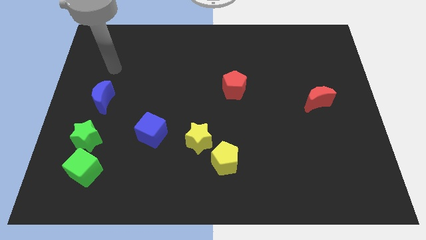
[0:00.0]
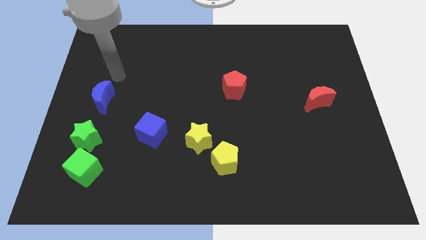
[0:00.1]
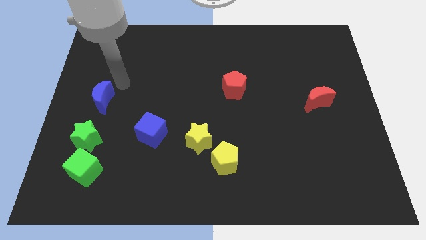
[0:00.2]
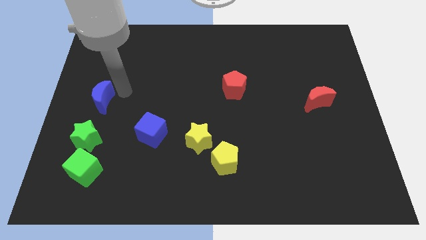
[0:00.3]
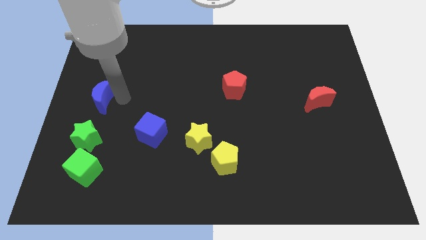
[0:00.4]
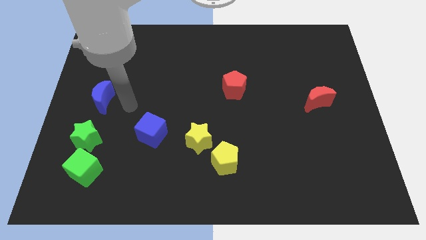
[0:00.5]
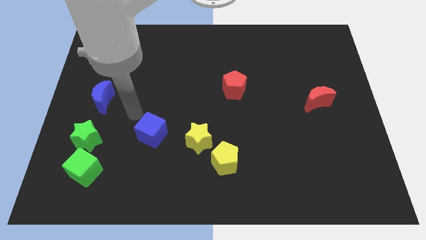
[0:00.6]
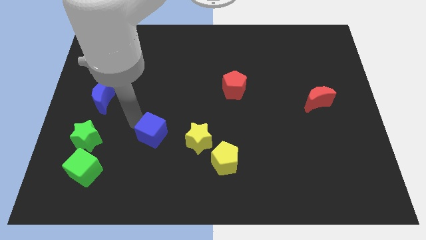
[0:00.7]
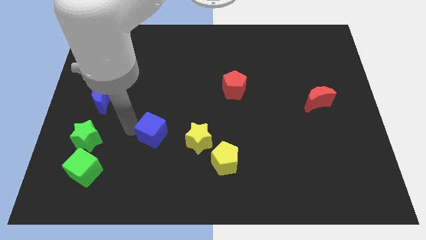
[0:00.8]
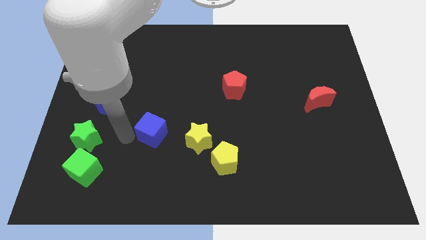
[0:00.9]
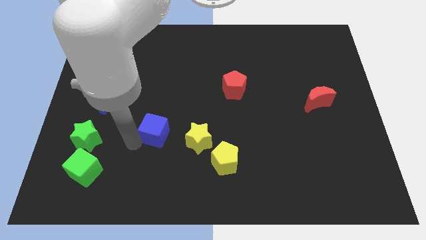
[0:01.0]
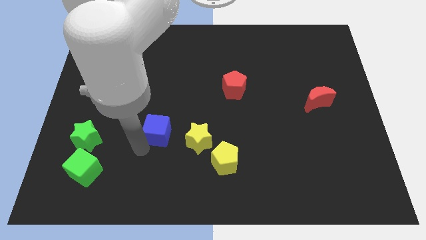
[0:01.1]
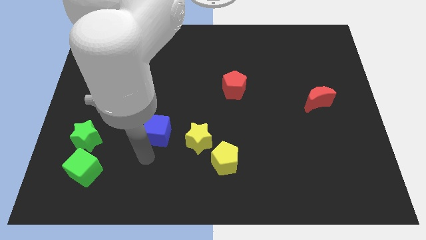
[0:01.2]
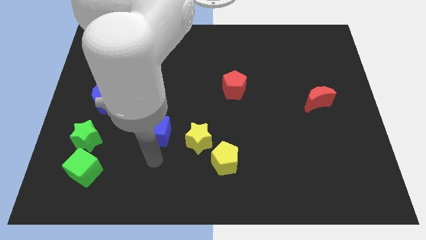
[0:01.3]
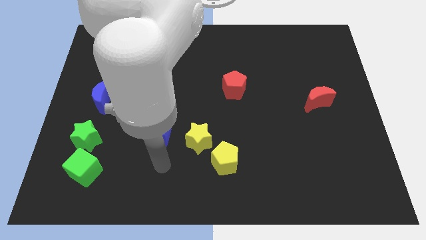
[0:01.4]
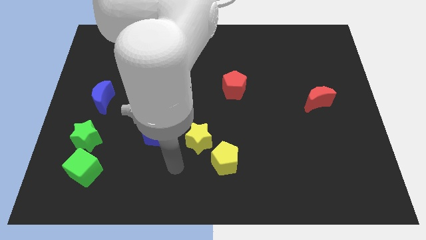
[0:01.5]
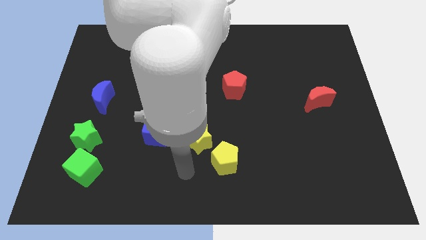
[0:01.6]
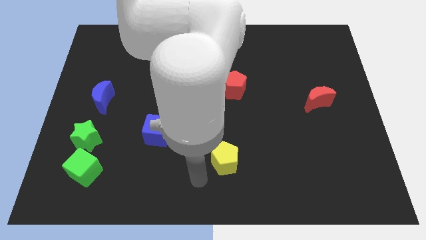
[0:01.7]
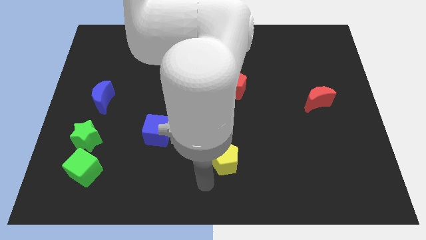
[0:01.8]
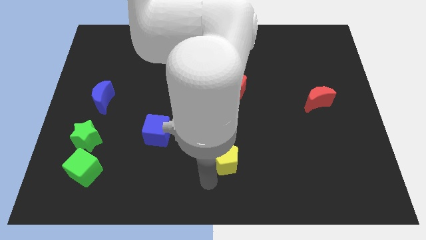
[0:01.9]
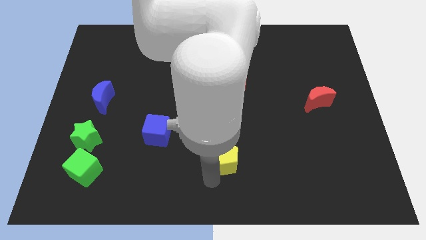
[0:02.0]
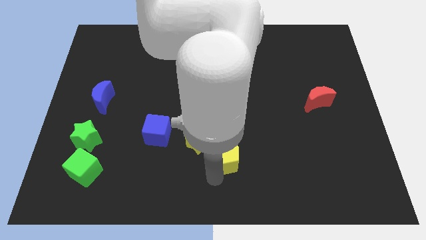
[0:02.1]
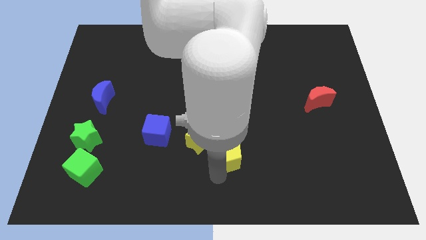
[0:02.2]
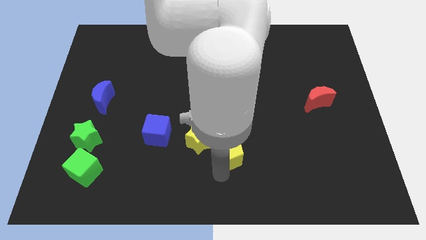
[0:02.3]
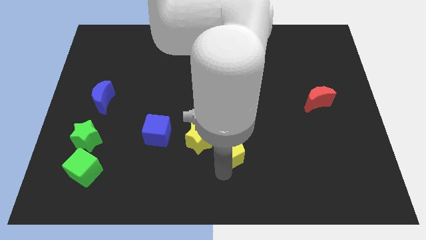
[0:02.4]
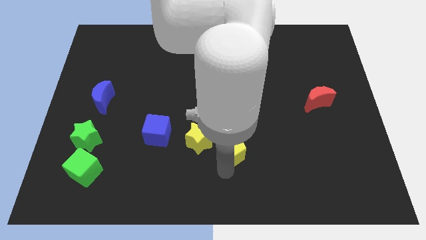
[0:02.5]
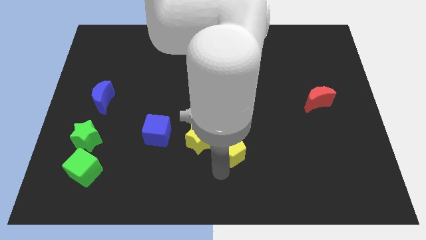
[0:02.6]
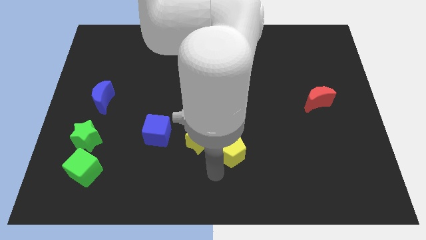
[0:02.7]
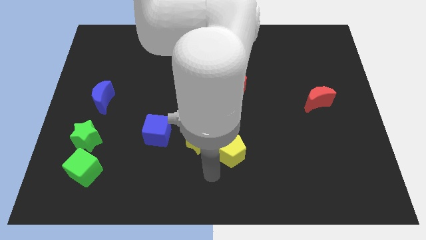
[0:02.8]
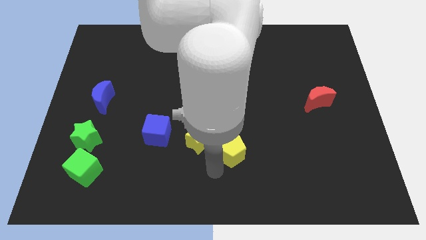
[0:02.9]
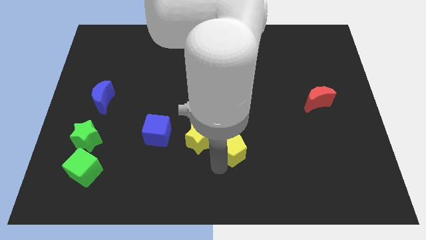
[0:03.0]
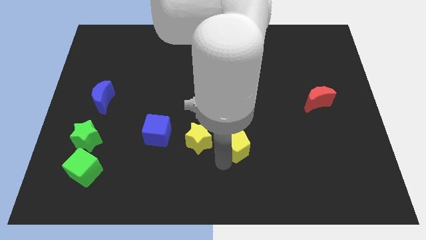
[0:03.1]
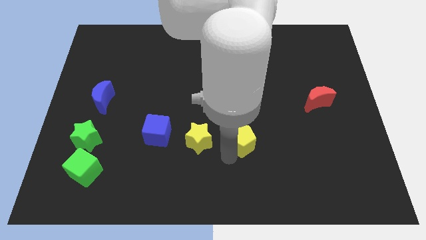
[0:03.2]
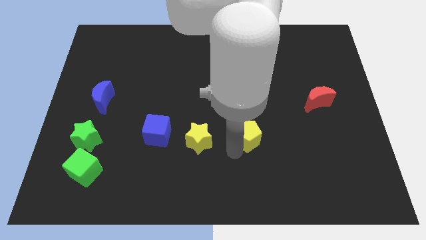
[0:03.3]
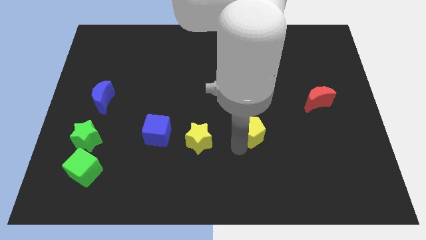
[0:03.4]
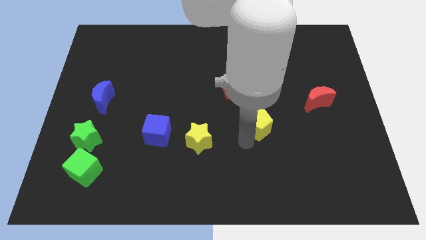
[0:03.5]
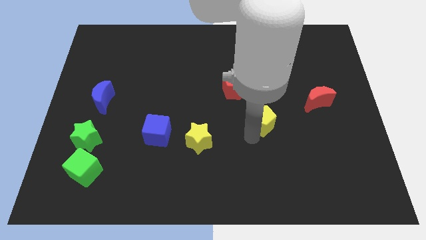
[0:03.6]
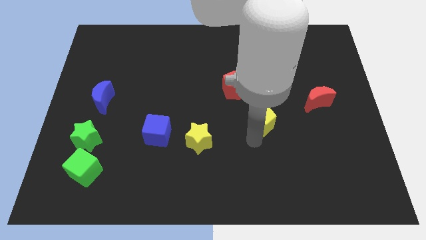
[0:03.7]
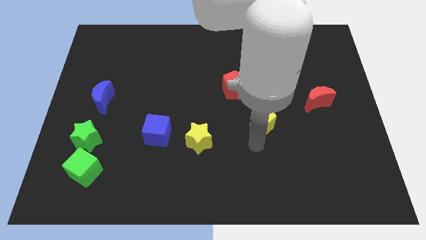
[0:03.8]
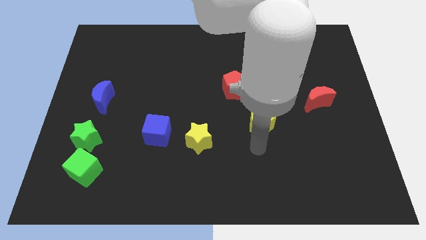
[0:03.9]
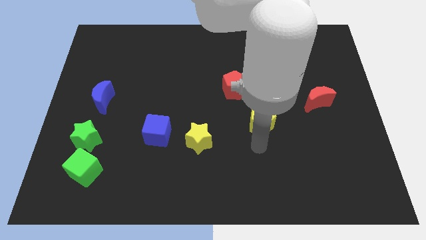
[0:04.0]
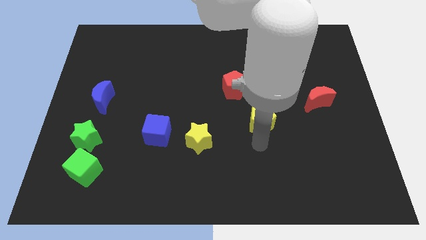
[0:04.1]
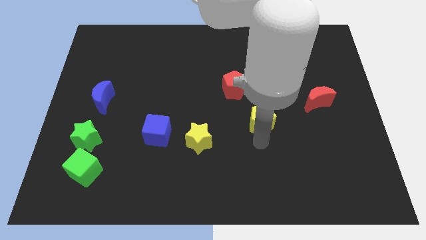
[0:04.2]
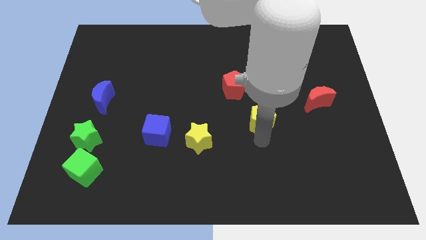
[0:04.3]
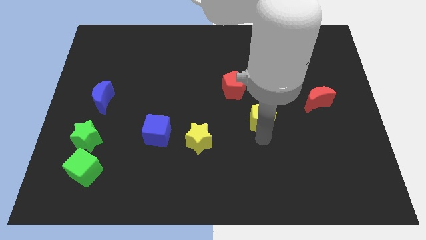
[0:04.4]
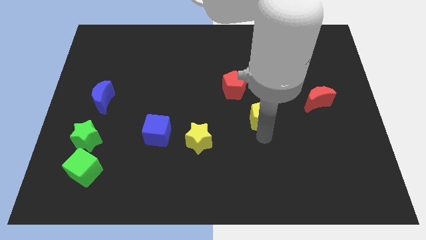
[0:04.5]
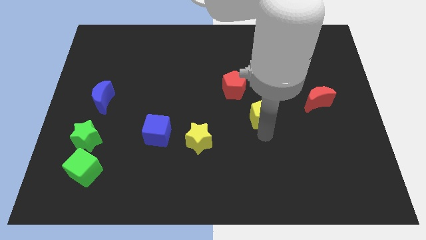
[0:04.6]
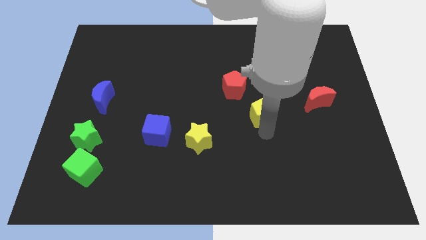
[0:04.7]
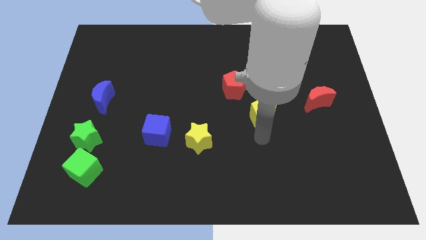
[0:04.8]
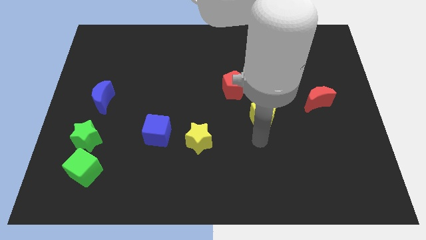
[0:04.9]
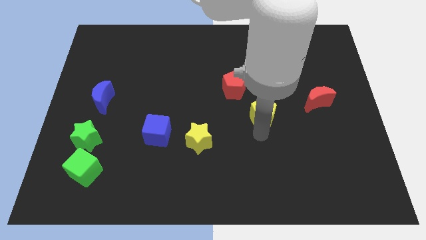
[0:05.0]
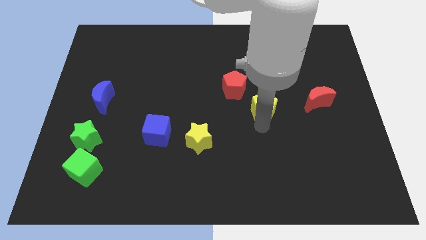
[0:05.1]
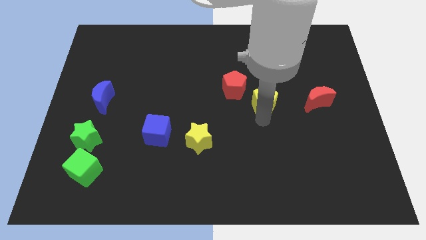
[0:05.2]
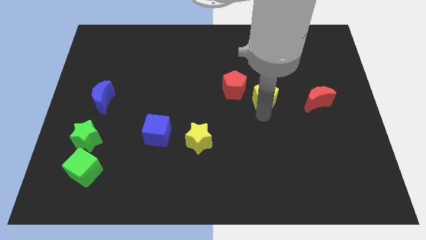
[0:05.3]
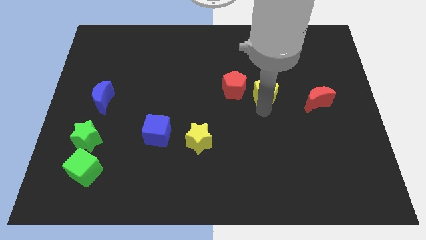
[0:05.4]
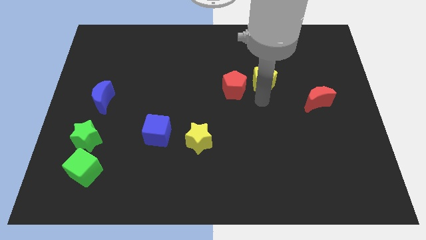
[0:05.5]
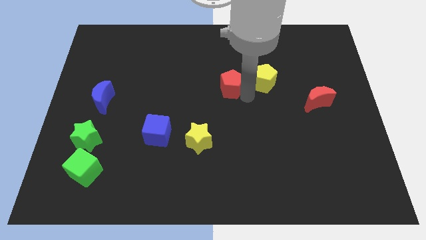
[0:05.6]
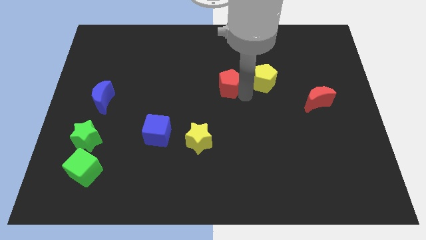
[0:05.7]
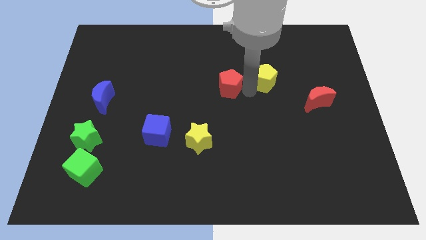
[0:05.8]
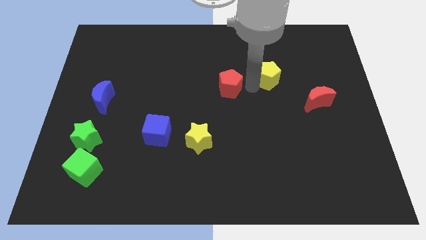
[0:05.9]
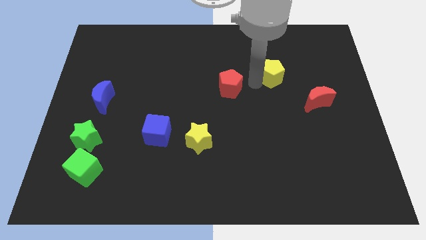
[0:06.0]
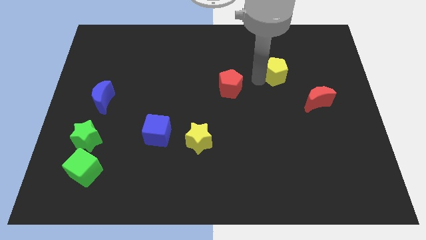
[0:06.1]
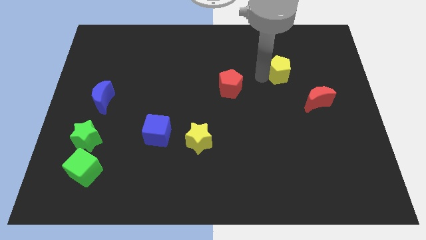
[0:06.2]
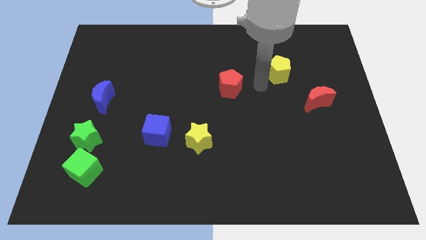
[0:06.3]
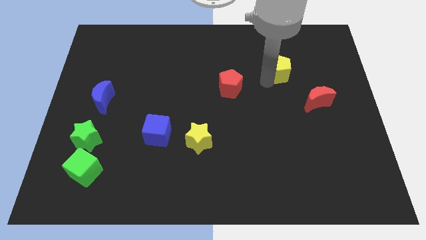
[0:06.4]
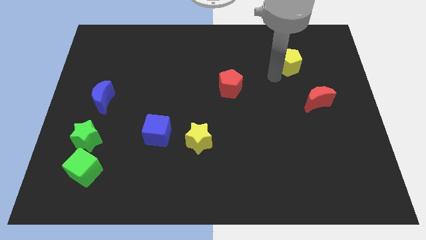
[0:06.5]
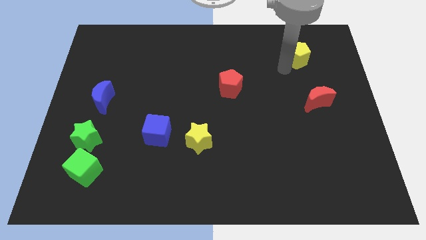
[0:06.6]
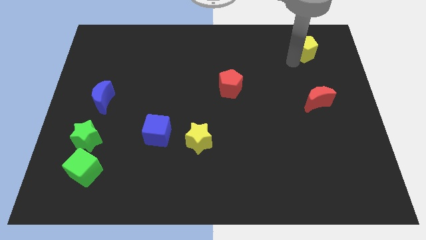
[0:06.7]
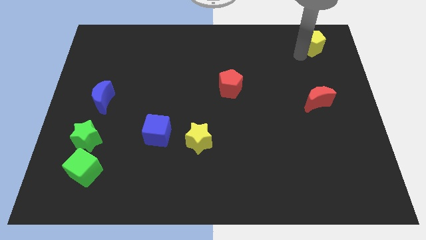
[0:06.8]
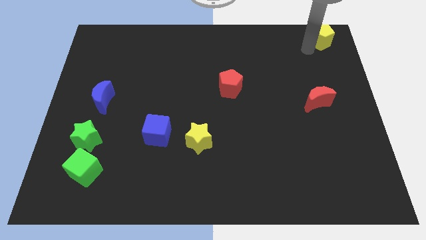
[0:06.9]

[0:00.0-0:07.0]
slide the yellow pentagon to the upper right corner
